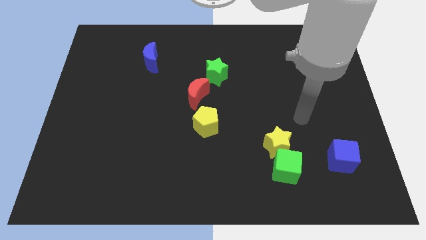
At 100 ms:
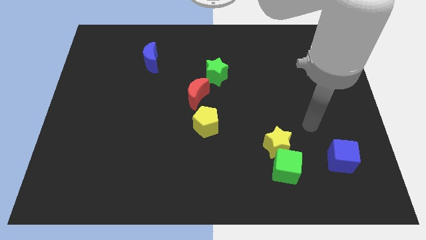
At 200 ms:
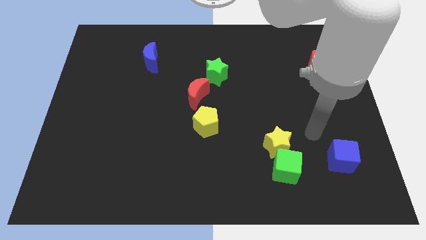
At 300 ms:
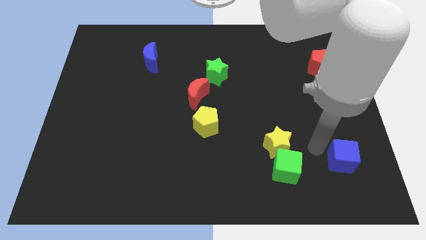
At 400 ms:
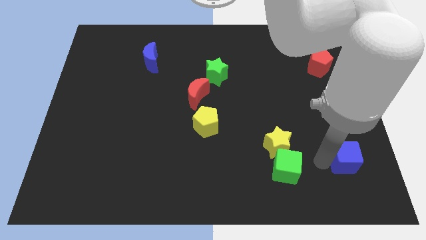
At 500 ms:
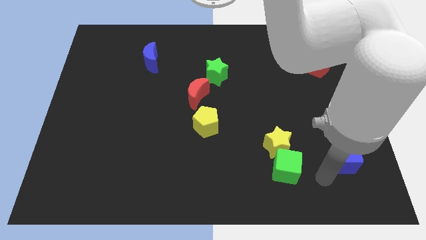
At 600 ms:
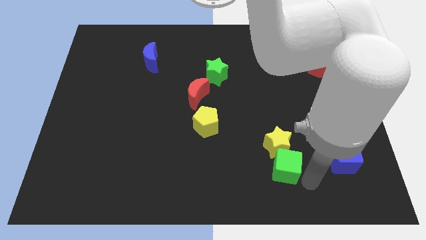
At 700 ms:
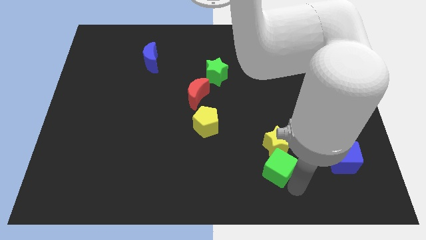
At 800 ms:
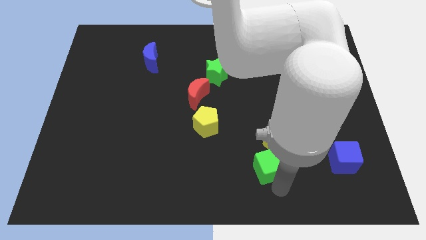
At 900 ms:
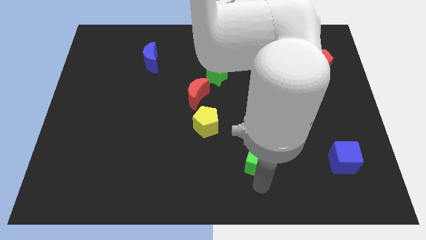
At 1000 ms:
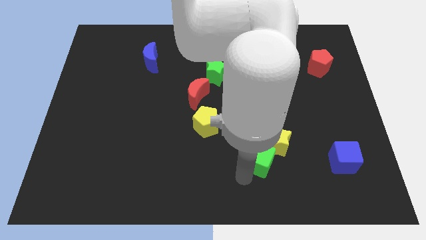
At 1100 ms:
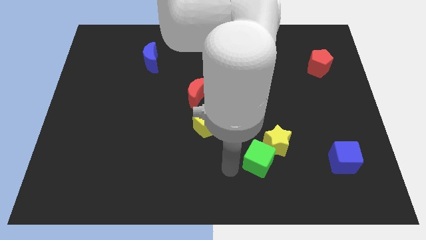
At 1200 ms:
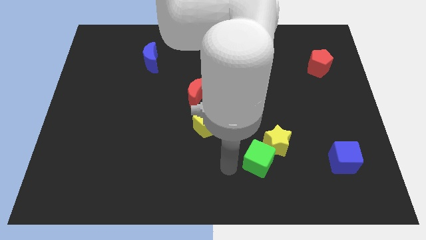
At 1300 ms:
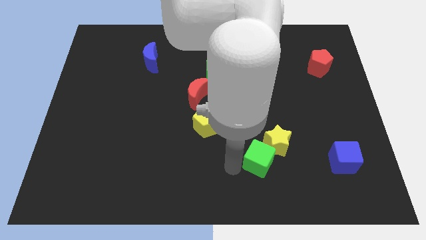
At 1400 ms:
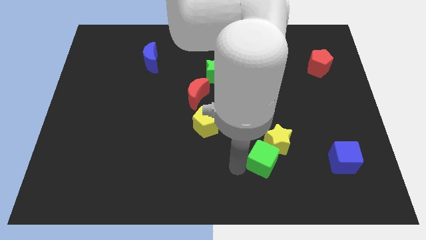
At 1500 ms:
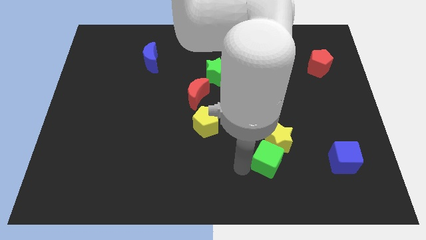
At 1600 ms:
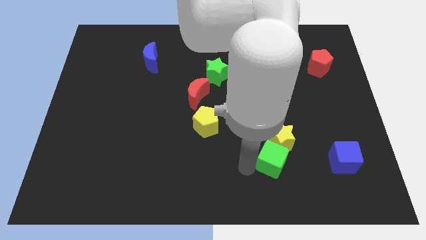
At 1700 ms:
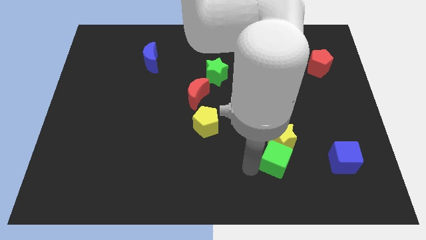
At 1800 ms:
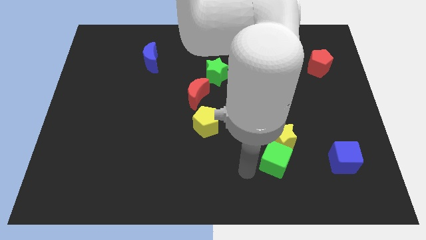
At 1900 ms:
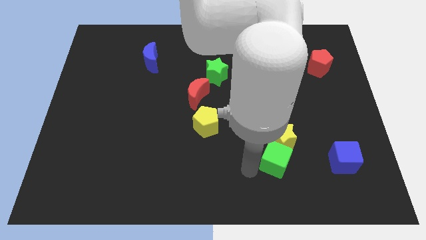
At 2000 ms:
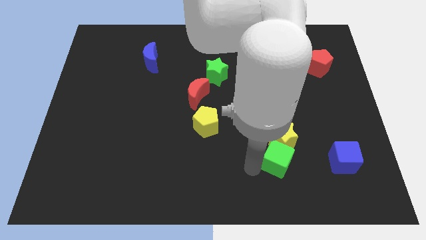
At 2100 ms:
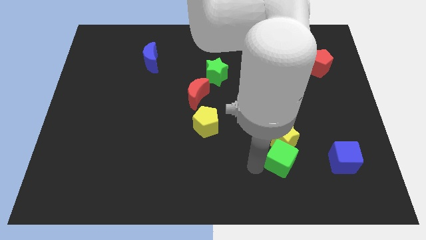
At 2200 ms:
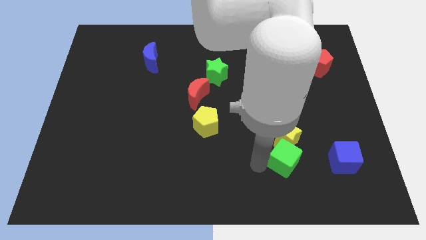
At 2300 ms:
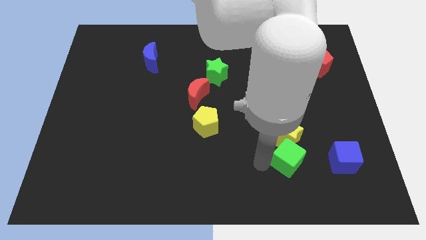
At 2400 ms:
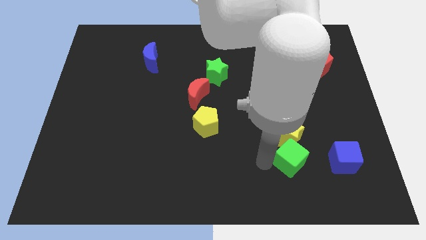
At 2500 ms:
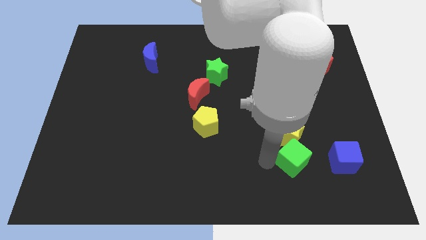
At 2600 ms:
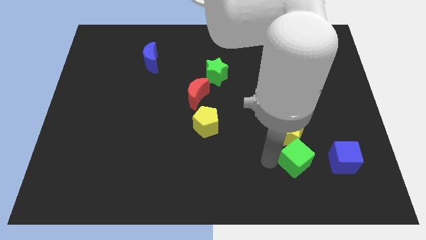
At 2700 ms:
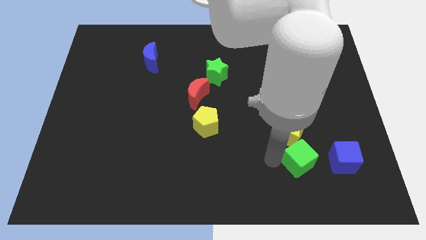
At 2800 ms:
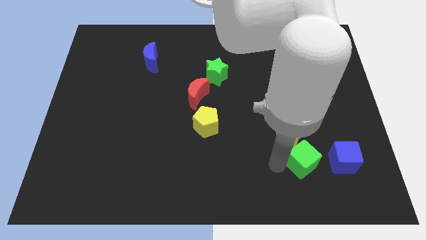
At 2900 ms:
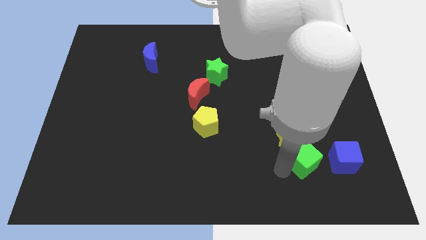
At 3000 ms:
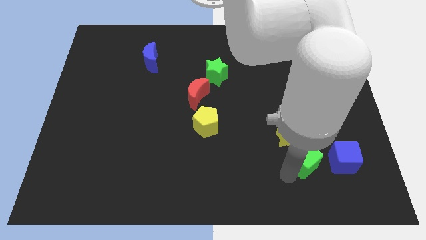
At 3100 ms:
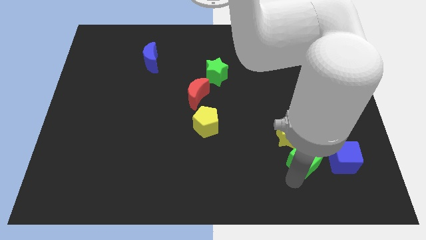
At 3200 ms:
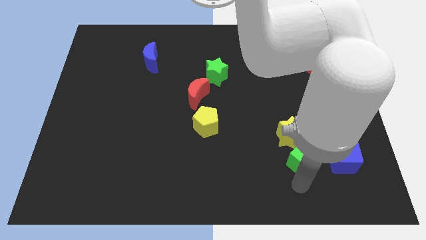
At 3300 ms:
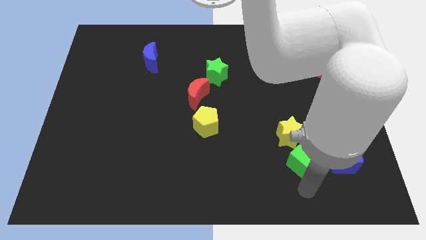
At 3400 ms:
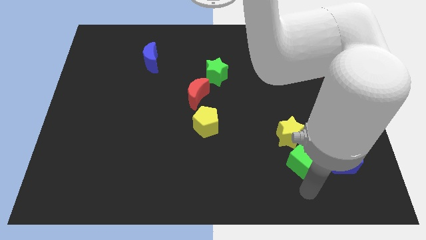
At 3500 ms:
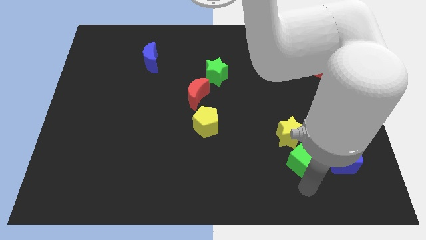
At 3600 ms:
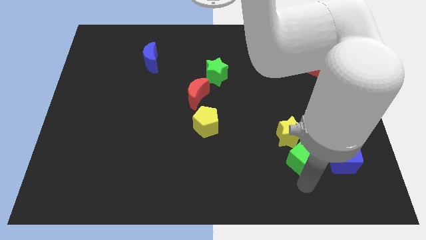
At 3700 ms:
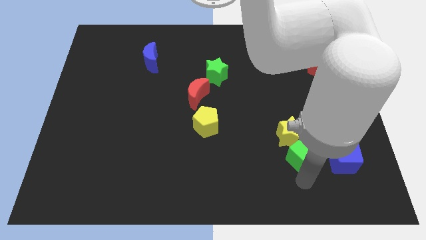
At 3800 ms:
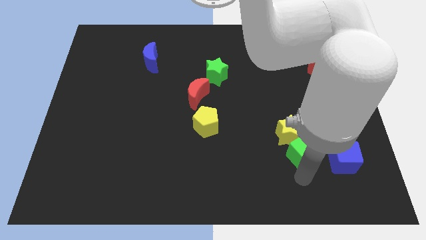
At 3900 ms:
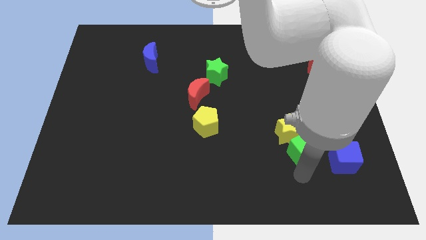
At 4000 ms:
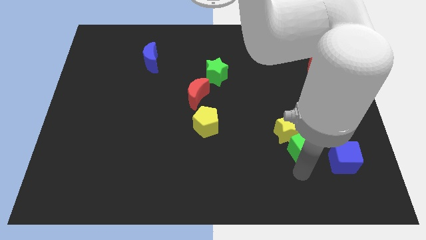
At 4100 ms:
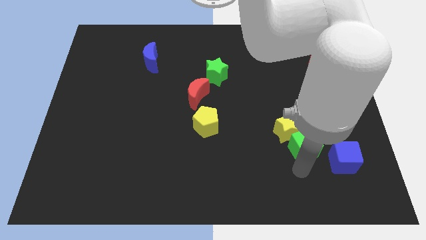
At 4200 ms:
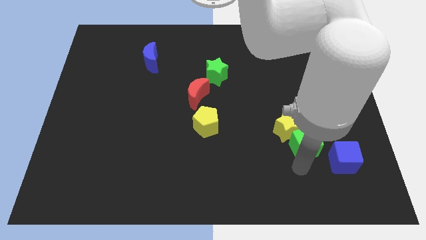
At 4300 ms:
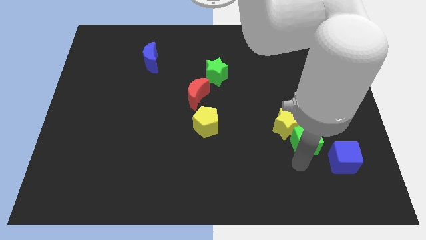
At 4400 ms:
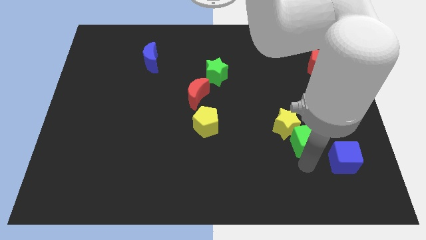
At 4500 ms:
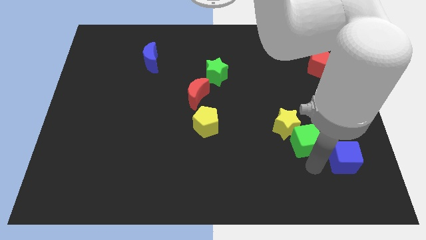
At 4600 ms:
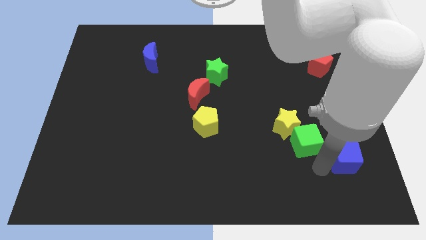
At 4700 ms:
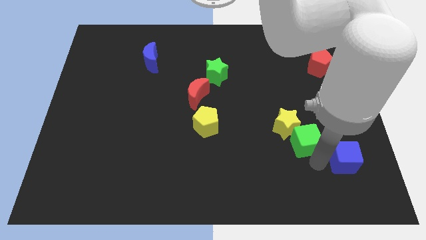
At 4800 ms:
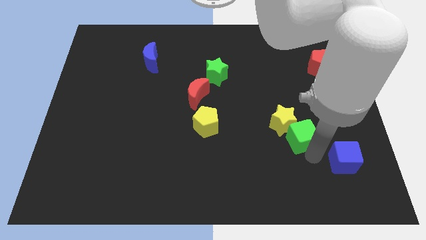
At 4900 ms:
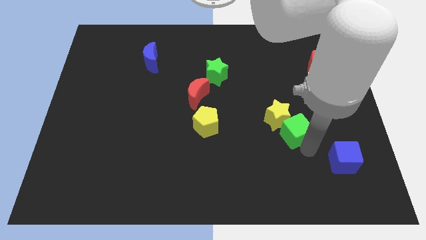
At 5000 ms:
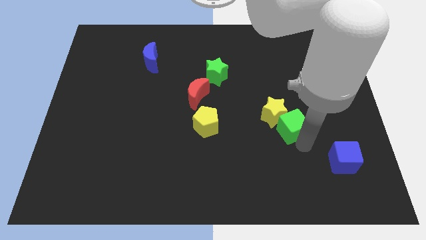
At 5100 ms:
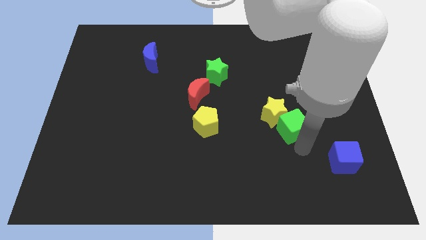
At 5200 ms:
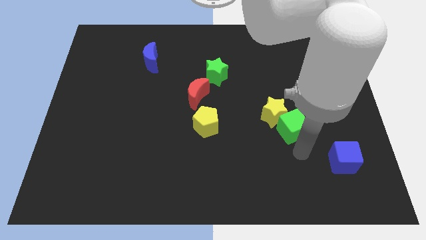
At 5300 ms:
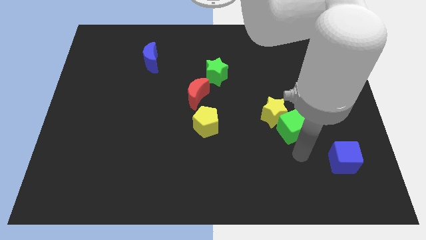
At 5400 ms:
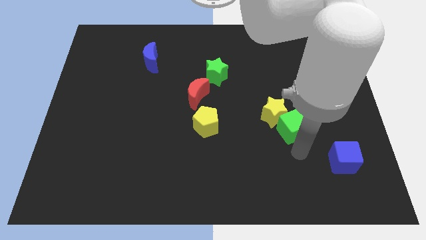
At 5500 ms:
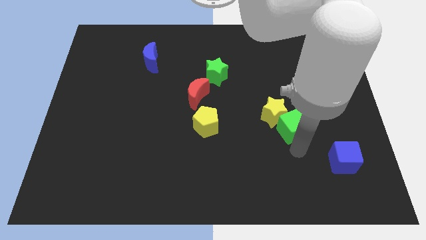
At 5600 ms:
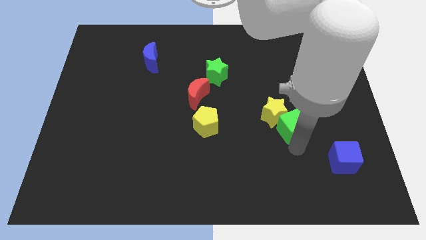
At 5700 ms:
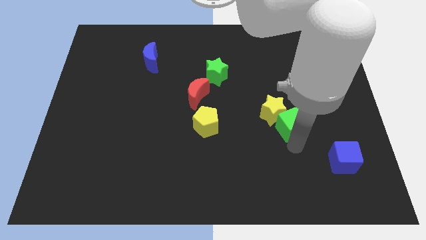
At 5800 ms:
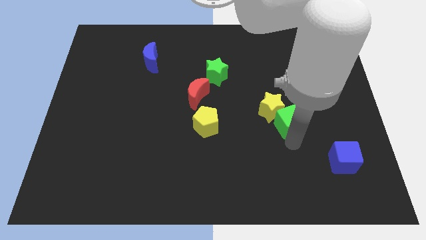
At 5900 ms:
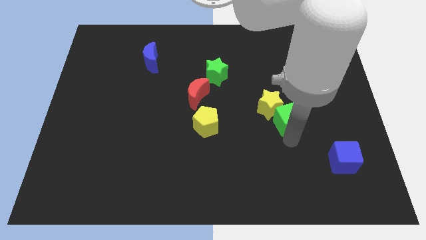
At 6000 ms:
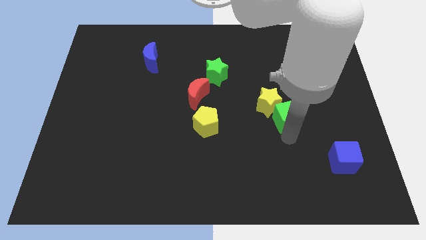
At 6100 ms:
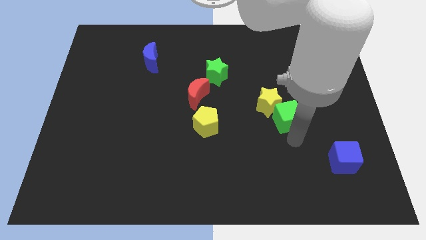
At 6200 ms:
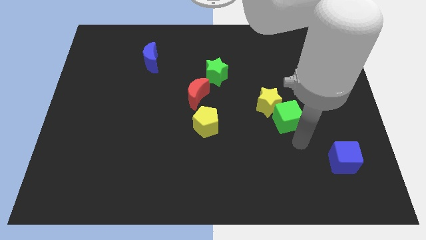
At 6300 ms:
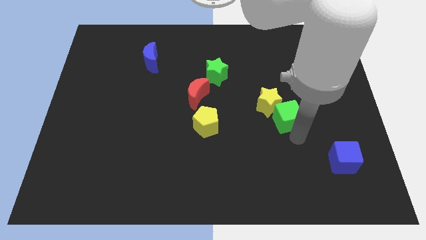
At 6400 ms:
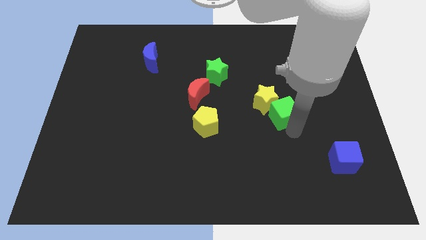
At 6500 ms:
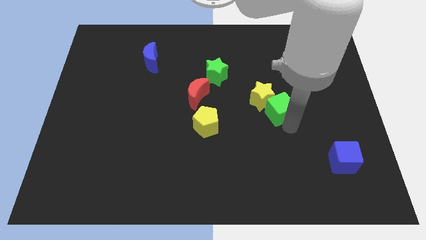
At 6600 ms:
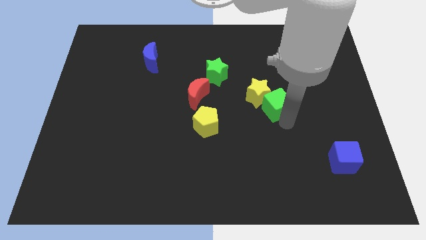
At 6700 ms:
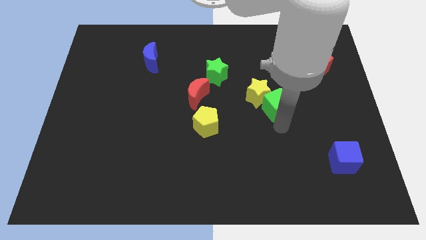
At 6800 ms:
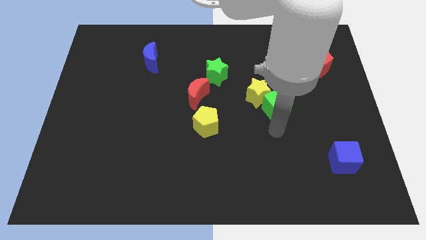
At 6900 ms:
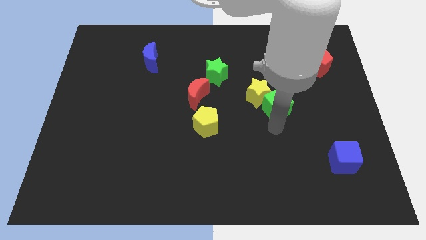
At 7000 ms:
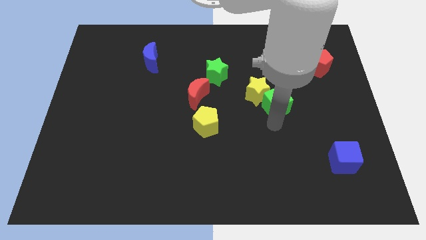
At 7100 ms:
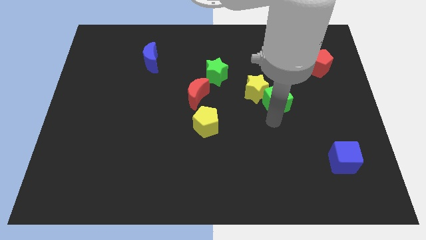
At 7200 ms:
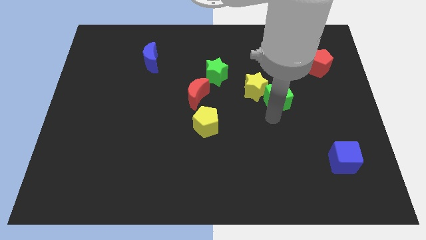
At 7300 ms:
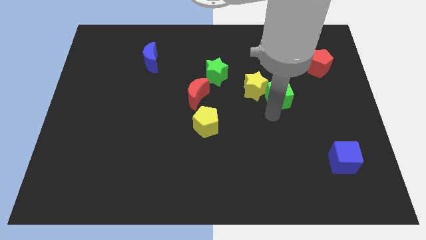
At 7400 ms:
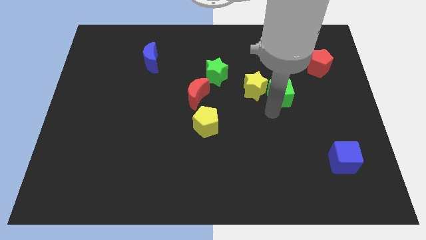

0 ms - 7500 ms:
slide the green cube up
